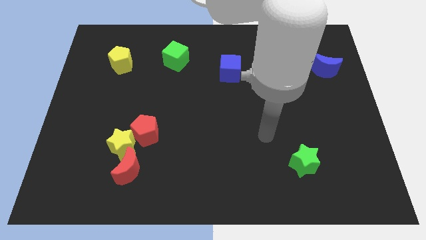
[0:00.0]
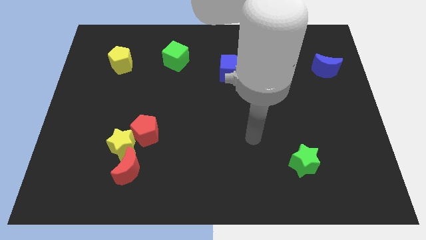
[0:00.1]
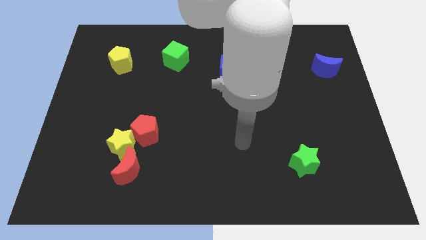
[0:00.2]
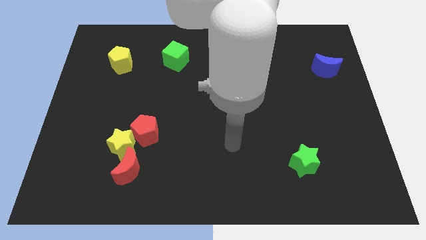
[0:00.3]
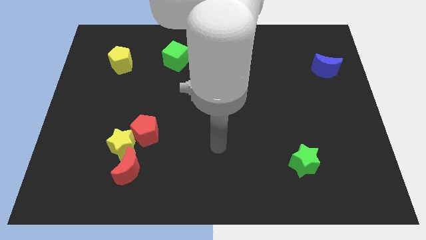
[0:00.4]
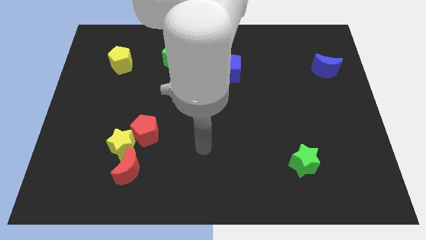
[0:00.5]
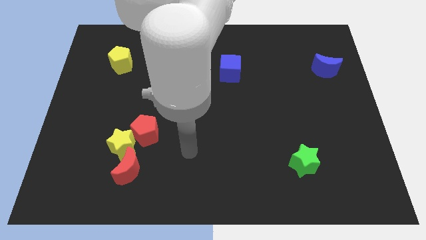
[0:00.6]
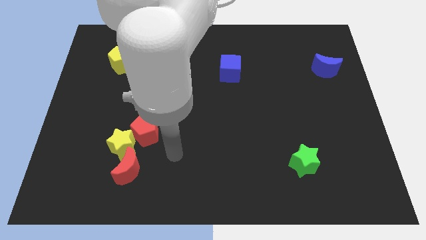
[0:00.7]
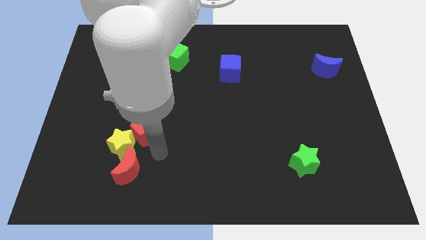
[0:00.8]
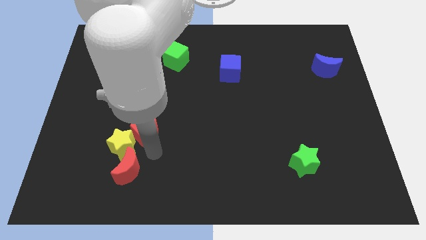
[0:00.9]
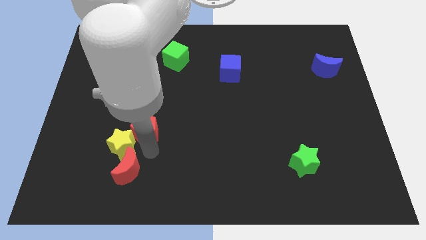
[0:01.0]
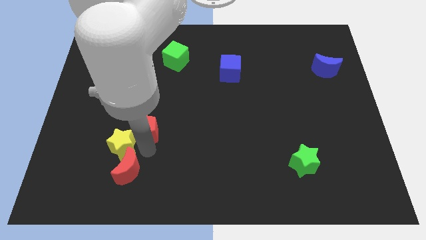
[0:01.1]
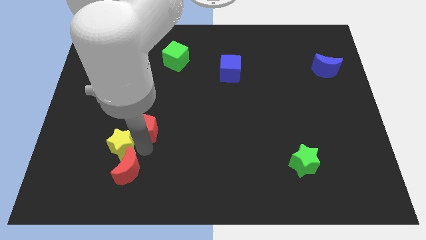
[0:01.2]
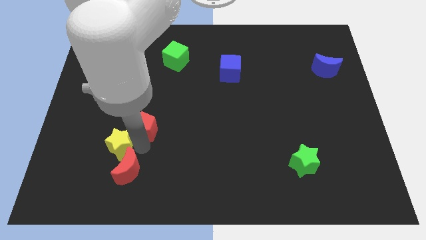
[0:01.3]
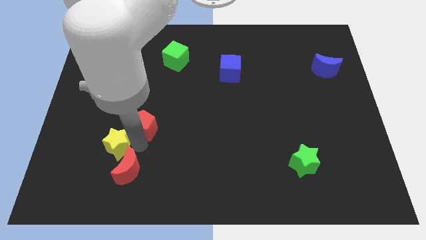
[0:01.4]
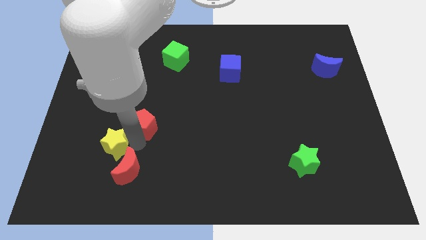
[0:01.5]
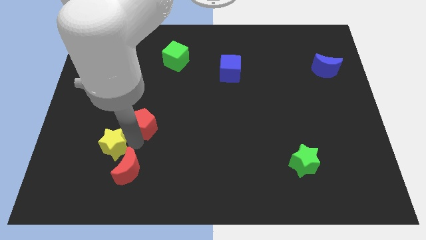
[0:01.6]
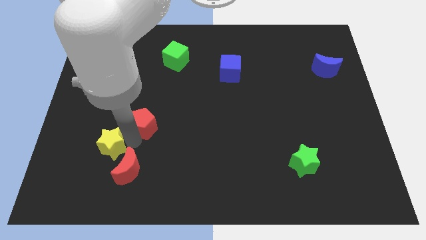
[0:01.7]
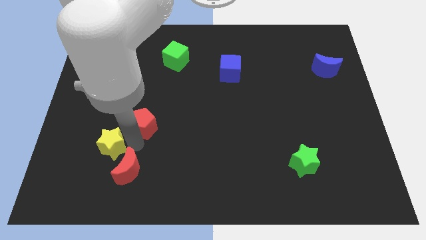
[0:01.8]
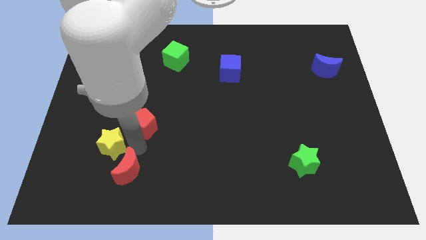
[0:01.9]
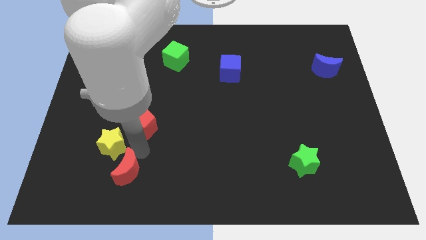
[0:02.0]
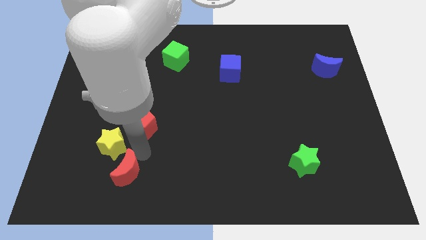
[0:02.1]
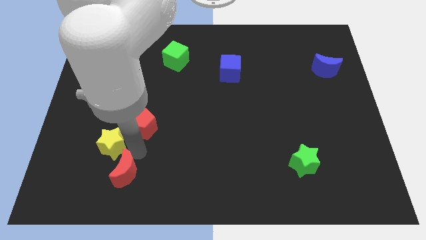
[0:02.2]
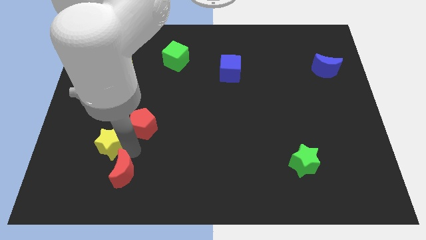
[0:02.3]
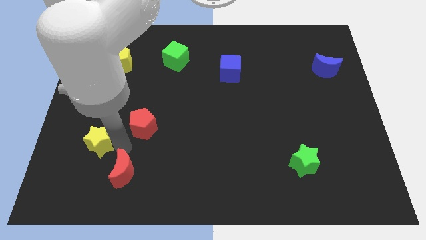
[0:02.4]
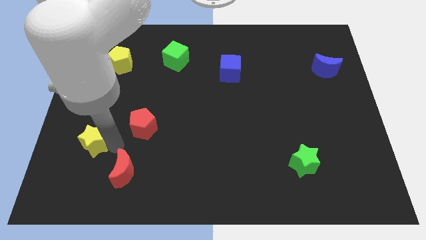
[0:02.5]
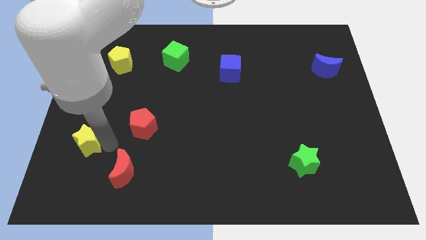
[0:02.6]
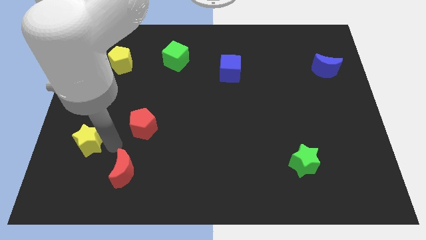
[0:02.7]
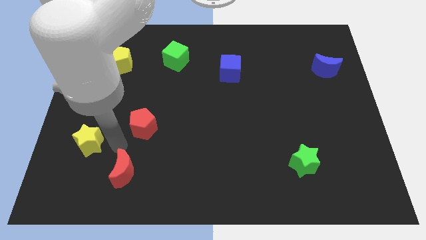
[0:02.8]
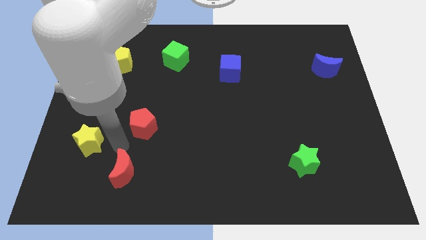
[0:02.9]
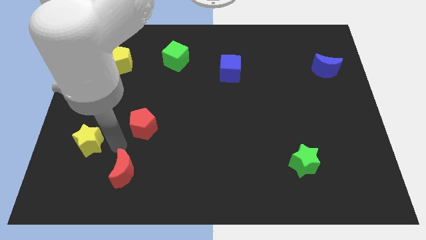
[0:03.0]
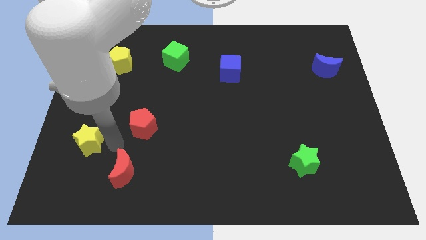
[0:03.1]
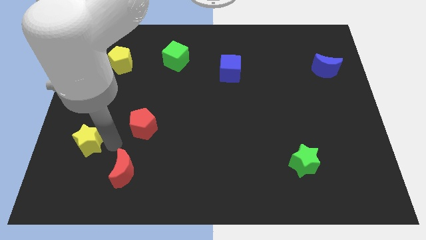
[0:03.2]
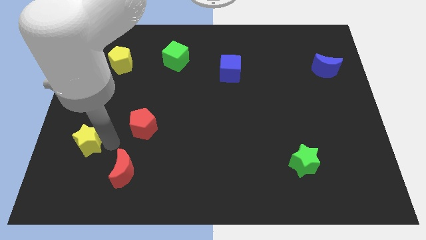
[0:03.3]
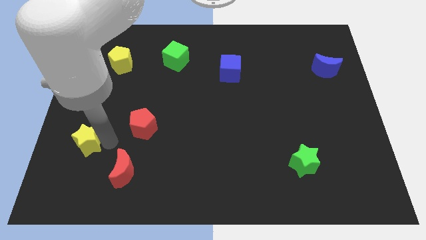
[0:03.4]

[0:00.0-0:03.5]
pull the yellow star apart from the red pentagon and red moon

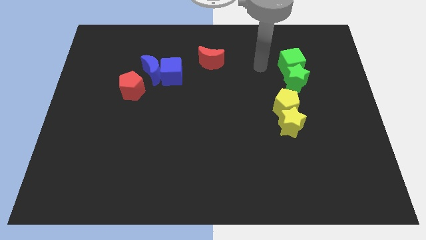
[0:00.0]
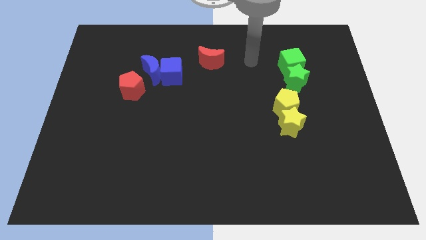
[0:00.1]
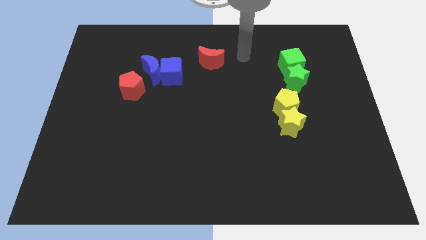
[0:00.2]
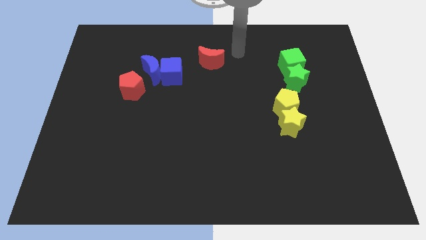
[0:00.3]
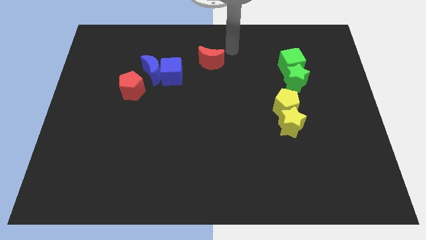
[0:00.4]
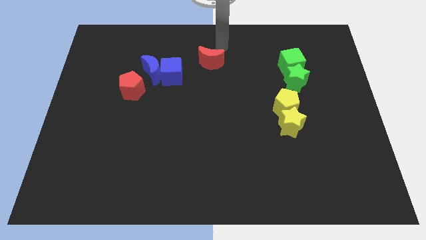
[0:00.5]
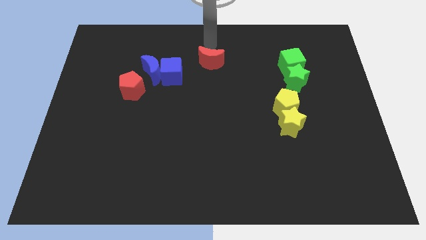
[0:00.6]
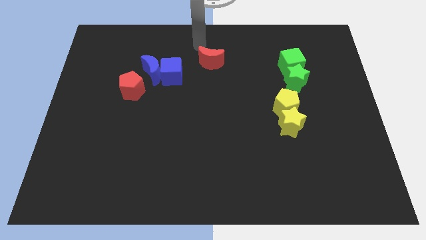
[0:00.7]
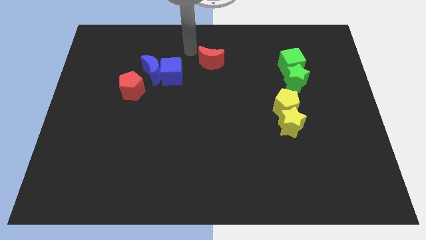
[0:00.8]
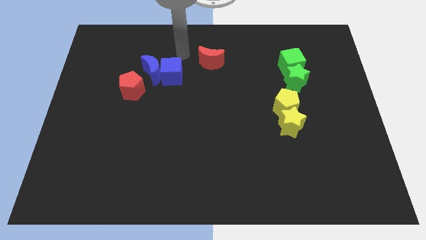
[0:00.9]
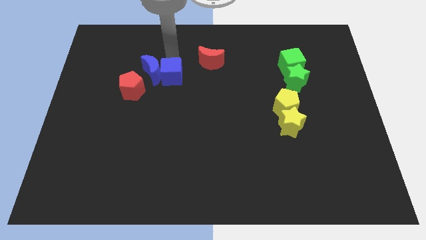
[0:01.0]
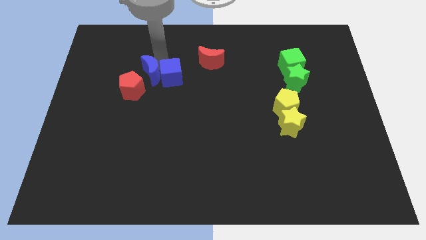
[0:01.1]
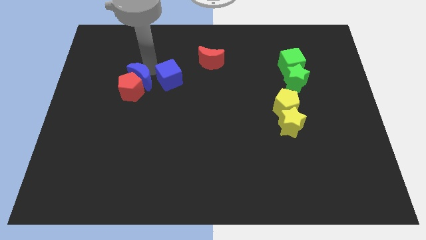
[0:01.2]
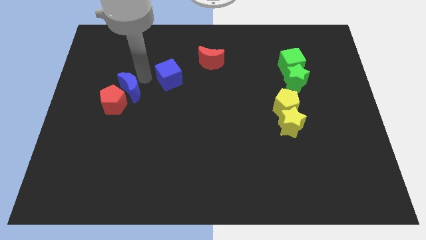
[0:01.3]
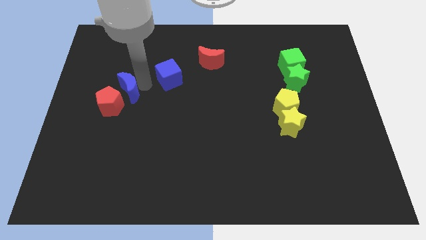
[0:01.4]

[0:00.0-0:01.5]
separate the blue cube from the blue moon

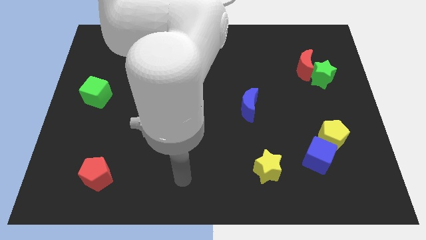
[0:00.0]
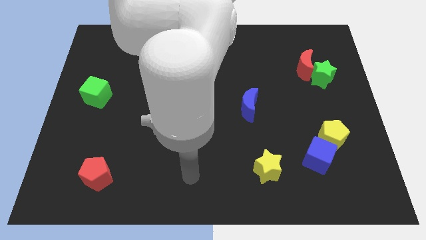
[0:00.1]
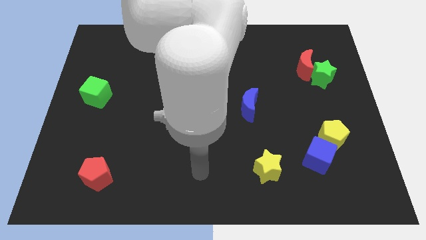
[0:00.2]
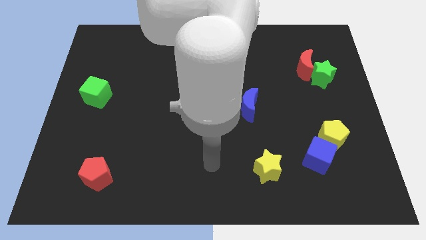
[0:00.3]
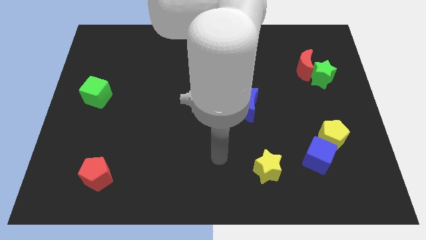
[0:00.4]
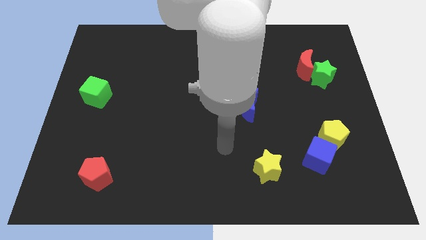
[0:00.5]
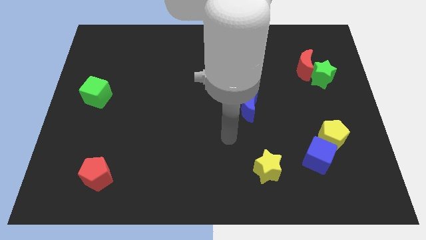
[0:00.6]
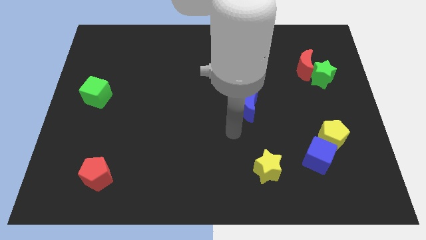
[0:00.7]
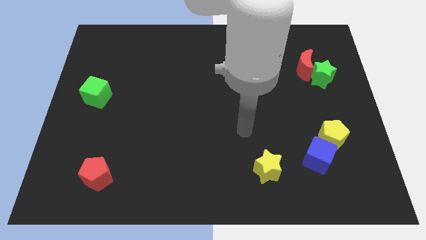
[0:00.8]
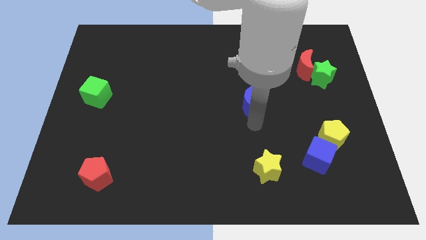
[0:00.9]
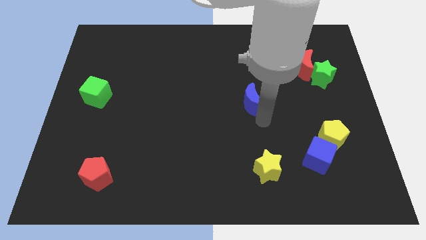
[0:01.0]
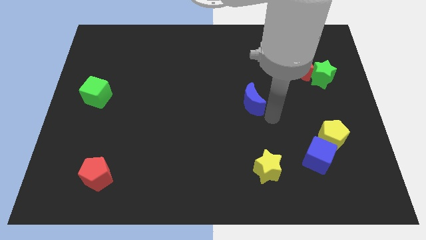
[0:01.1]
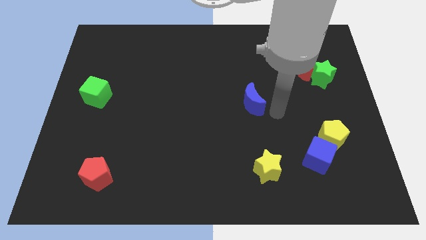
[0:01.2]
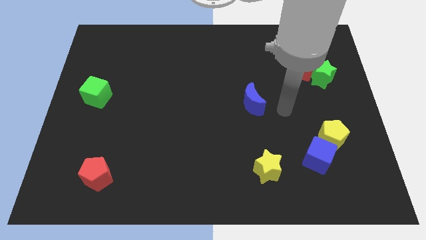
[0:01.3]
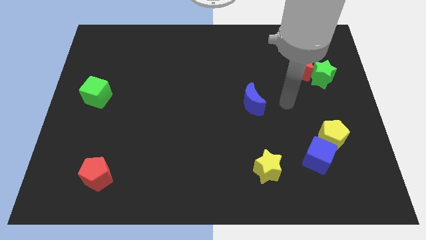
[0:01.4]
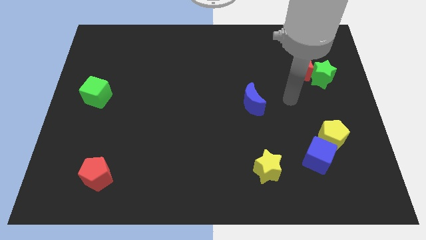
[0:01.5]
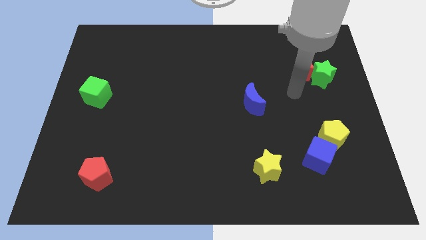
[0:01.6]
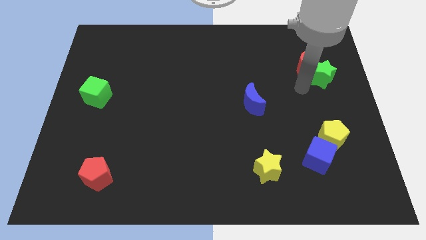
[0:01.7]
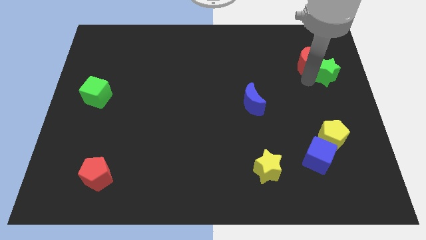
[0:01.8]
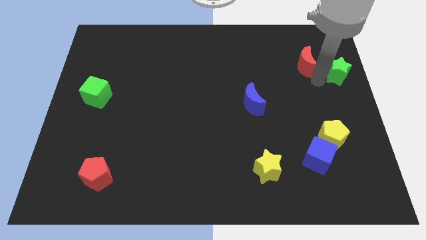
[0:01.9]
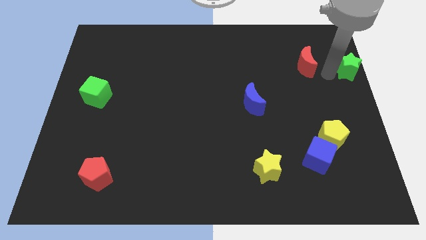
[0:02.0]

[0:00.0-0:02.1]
pull the red moon apart from the green star

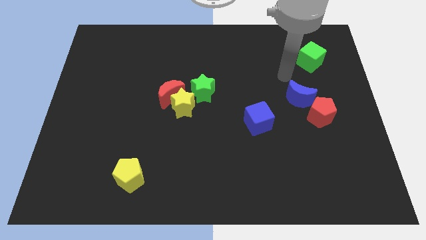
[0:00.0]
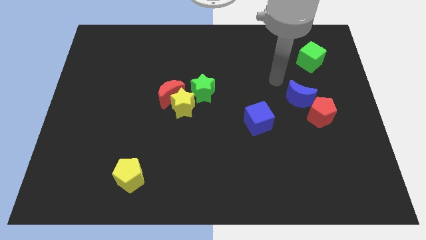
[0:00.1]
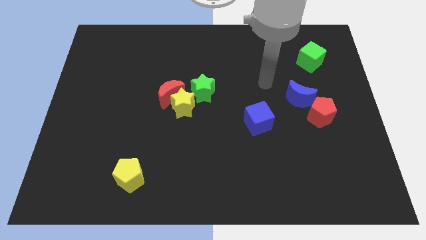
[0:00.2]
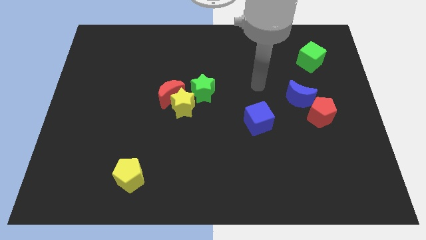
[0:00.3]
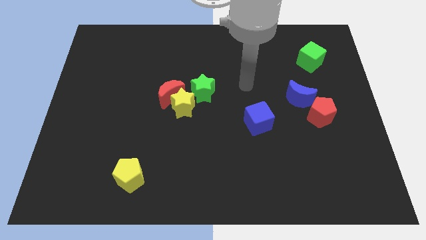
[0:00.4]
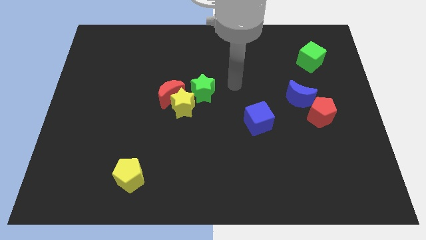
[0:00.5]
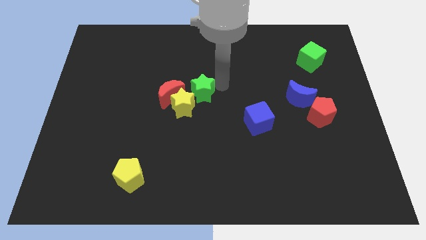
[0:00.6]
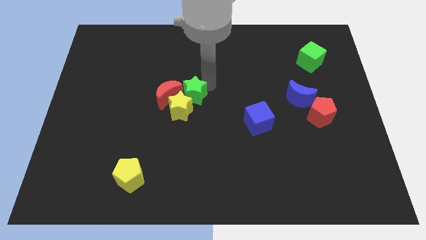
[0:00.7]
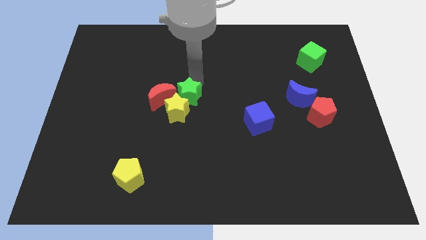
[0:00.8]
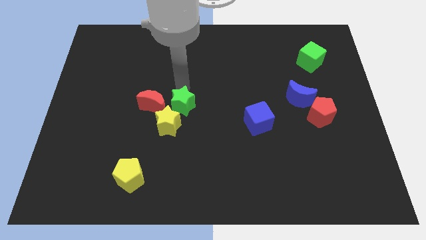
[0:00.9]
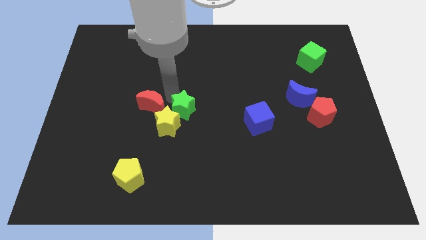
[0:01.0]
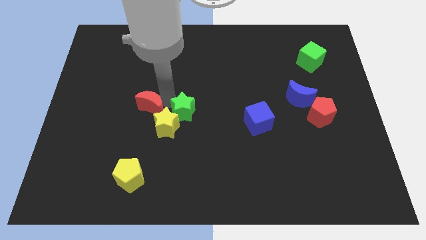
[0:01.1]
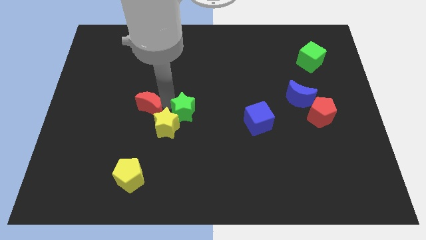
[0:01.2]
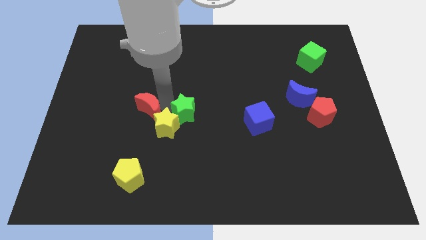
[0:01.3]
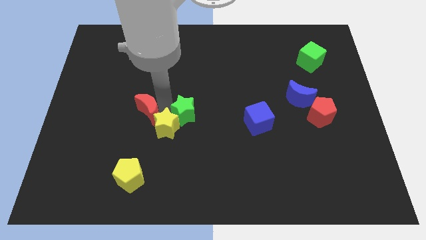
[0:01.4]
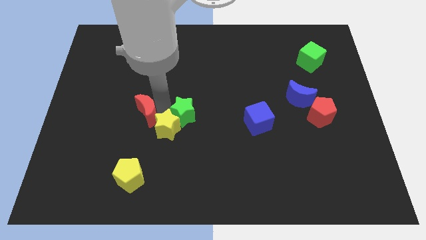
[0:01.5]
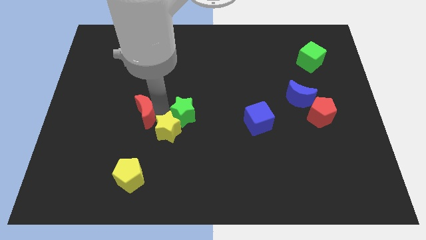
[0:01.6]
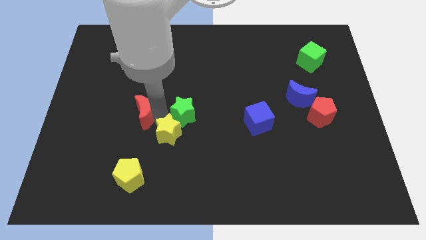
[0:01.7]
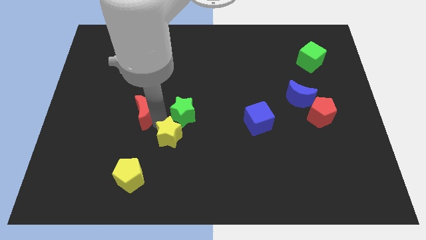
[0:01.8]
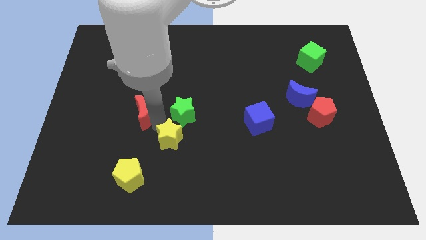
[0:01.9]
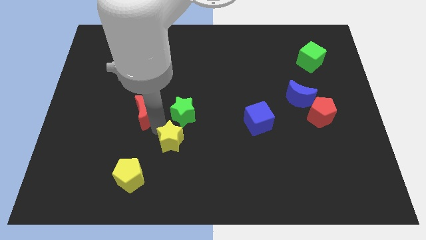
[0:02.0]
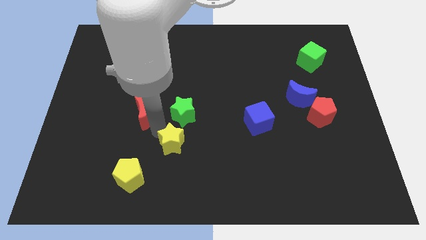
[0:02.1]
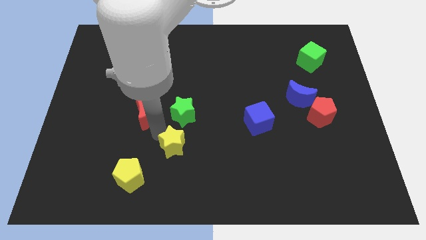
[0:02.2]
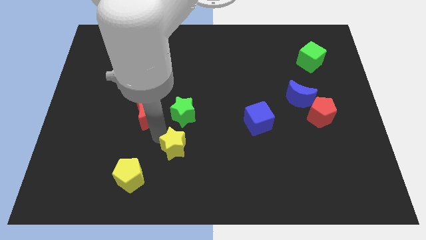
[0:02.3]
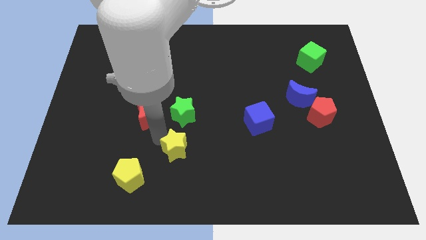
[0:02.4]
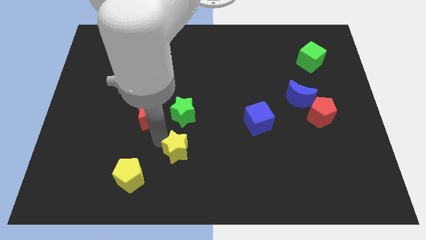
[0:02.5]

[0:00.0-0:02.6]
pull the yellow star apart from the red moon and green star
